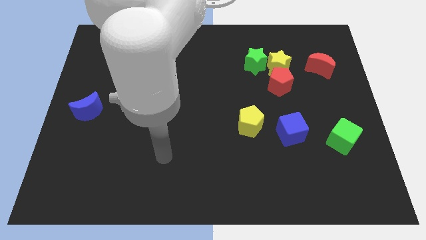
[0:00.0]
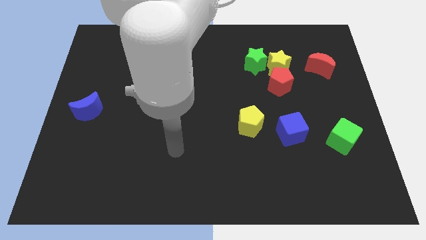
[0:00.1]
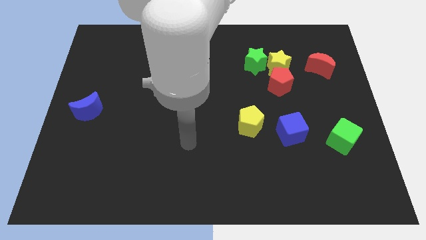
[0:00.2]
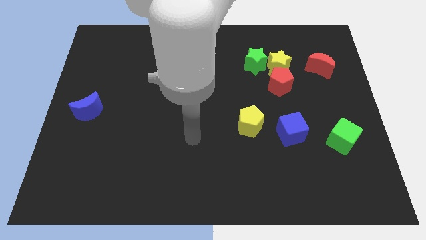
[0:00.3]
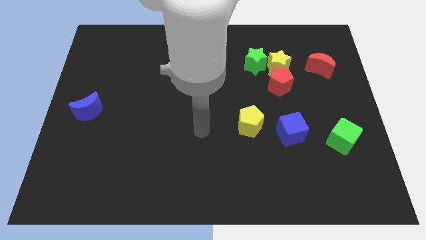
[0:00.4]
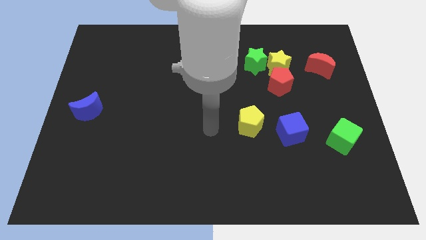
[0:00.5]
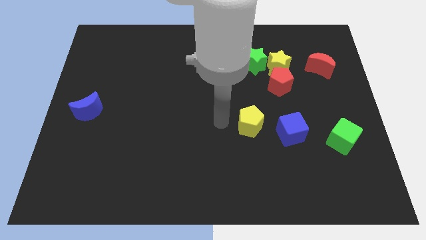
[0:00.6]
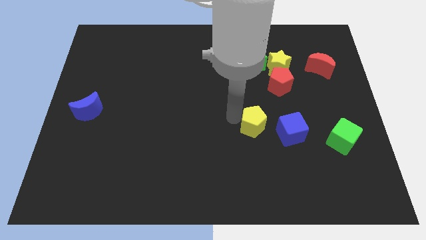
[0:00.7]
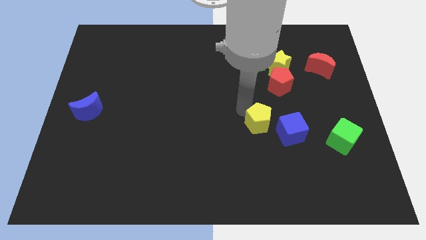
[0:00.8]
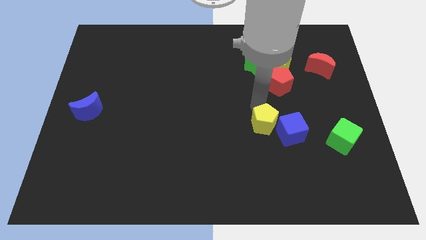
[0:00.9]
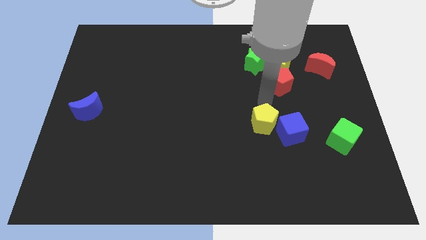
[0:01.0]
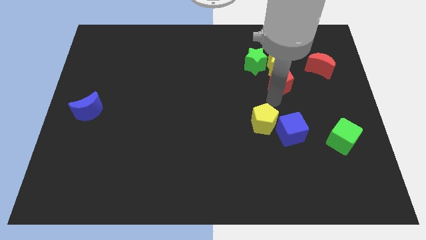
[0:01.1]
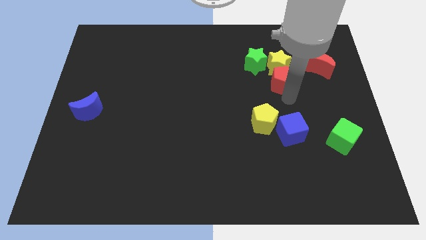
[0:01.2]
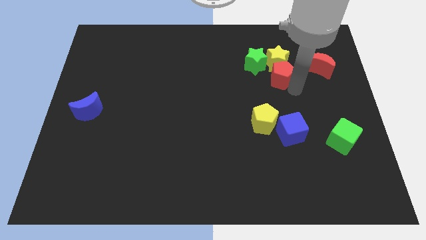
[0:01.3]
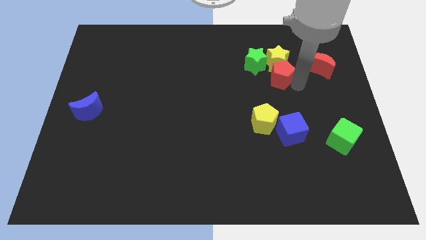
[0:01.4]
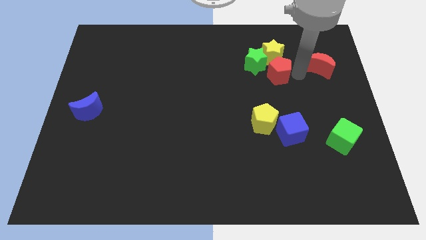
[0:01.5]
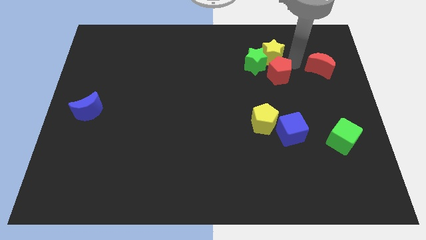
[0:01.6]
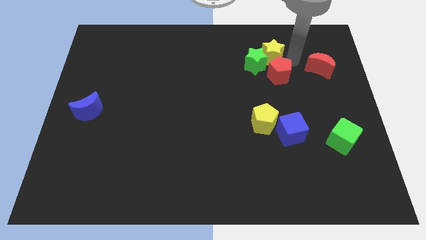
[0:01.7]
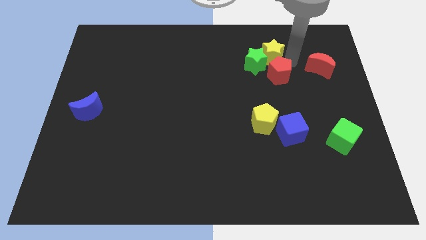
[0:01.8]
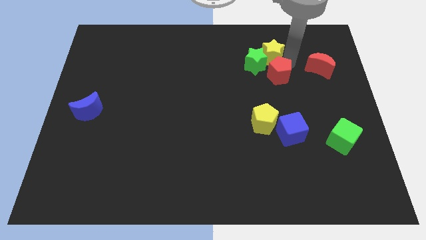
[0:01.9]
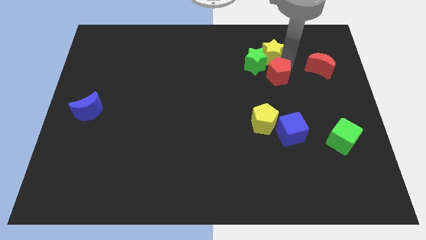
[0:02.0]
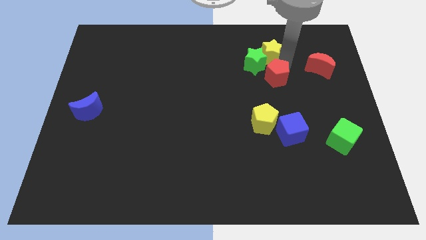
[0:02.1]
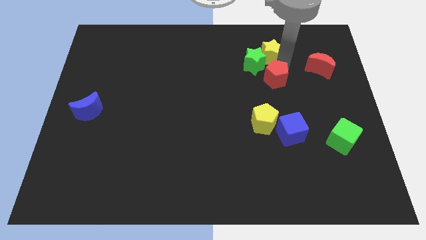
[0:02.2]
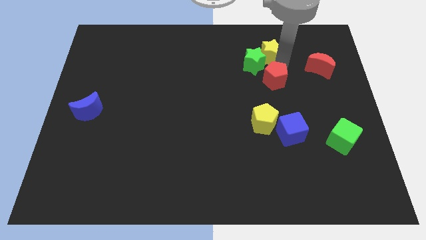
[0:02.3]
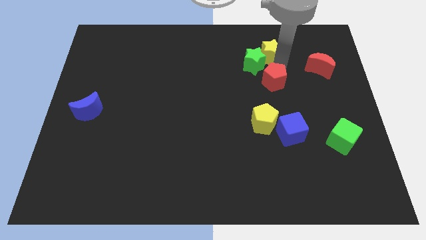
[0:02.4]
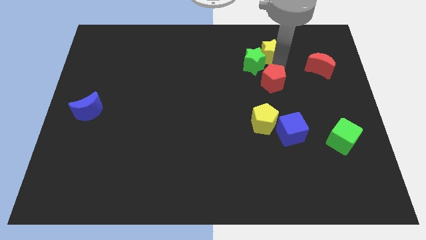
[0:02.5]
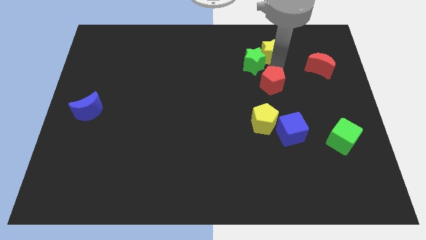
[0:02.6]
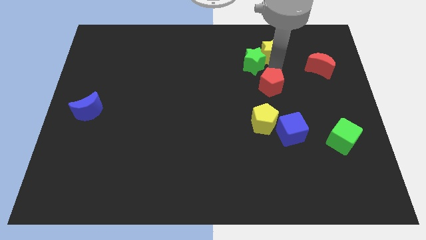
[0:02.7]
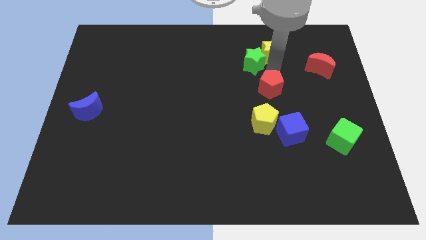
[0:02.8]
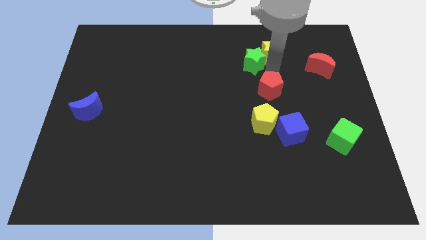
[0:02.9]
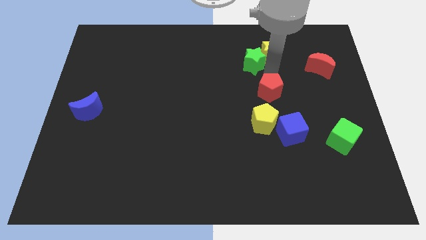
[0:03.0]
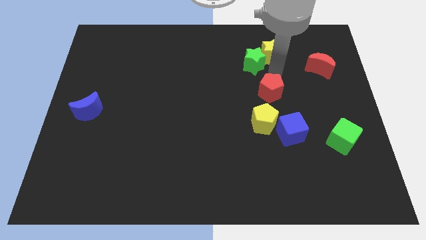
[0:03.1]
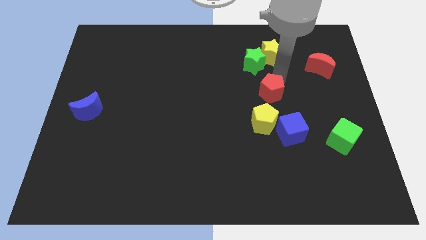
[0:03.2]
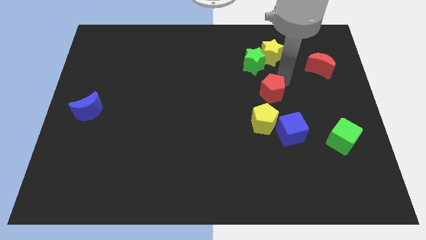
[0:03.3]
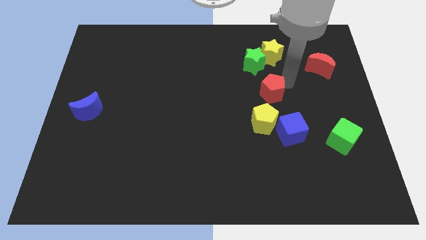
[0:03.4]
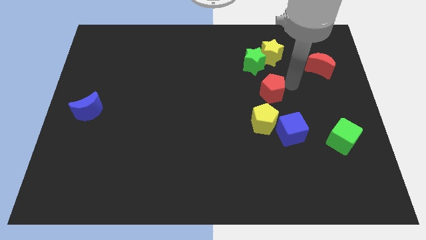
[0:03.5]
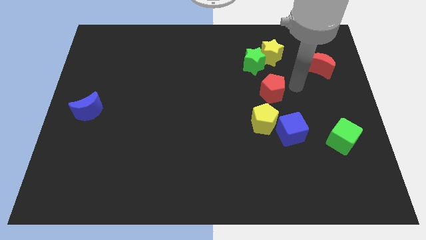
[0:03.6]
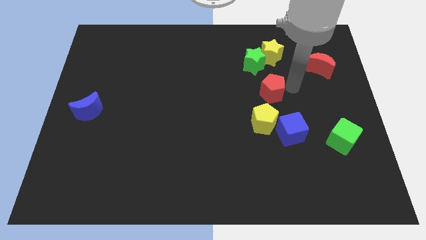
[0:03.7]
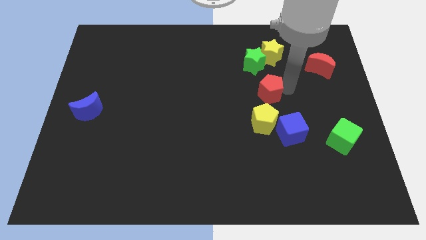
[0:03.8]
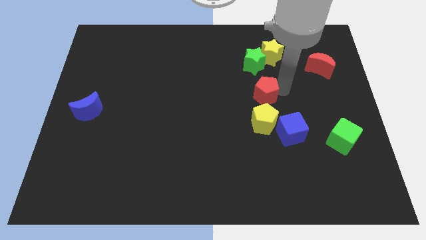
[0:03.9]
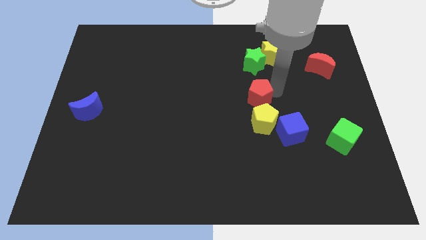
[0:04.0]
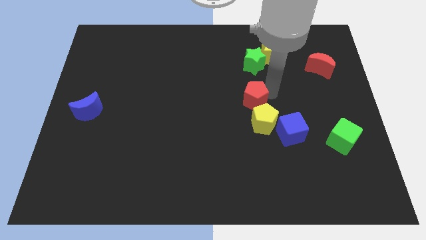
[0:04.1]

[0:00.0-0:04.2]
push the red pentagon downwards and to the left diagonally a little bit

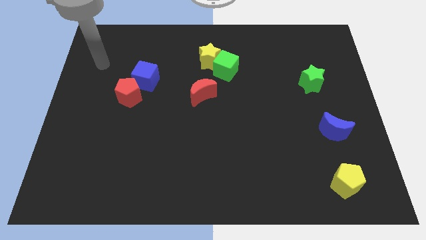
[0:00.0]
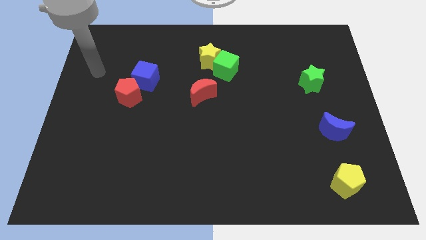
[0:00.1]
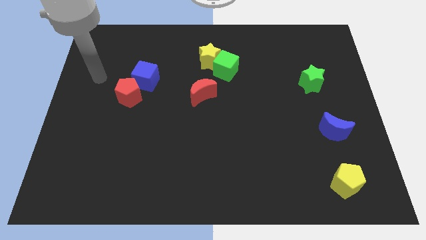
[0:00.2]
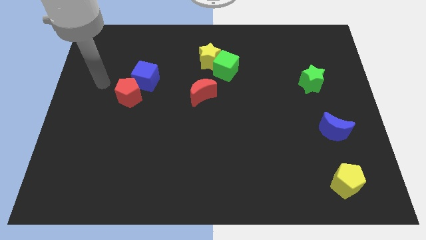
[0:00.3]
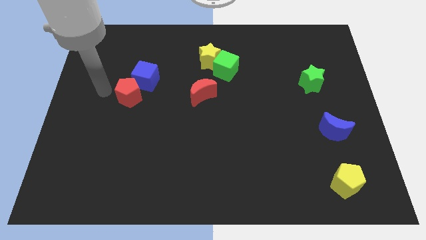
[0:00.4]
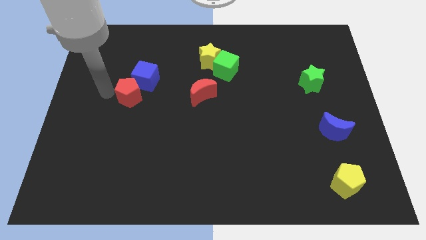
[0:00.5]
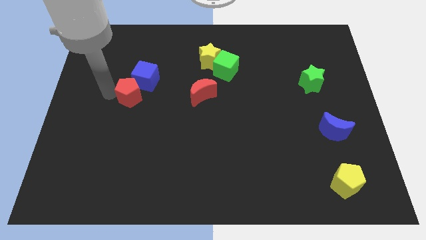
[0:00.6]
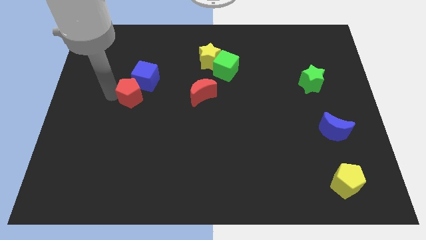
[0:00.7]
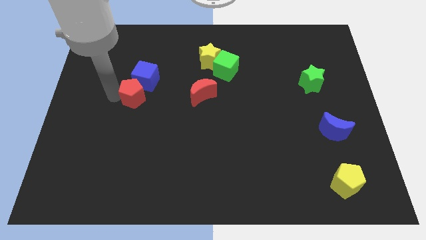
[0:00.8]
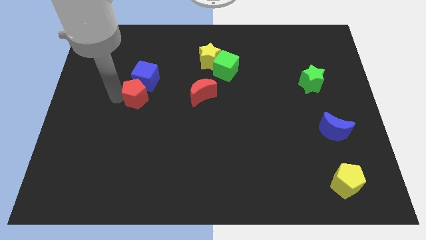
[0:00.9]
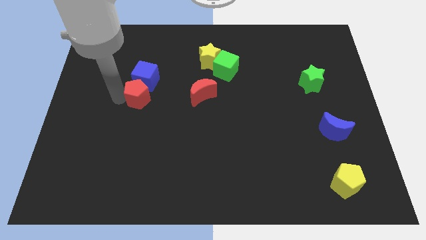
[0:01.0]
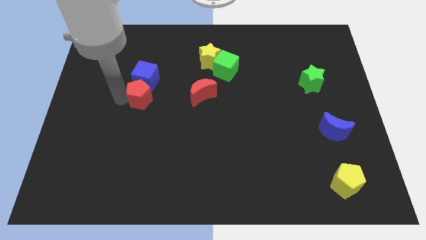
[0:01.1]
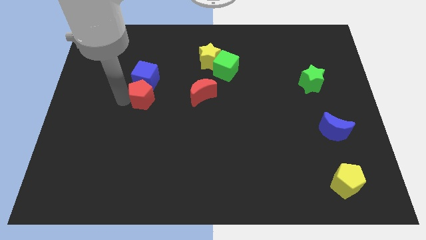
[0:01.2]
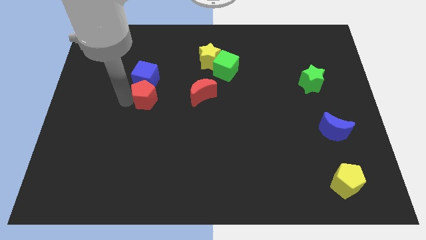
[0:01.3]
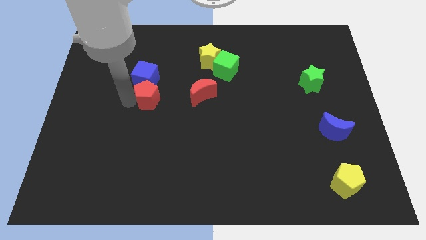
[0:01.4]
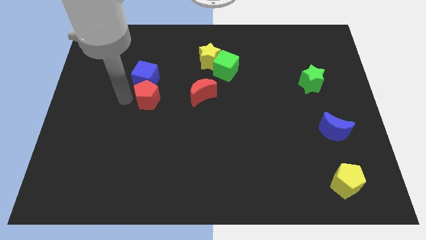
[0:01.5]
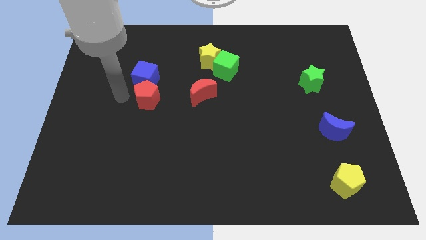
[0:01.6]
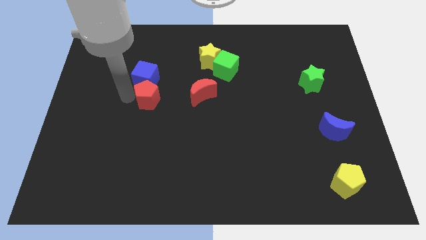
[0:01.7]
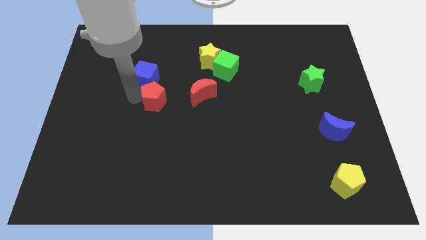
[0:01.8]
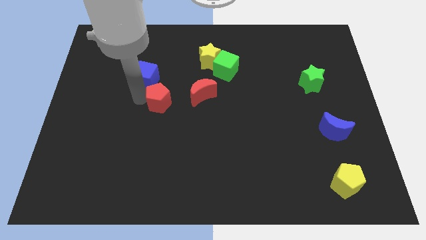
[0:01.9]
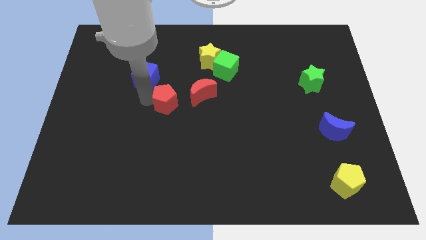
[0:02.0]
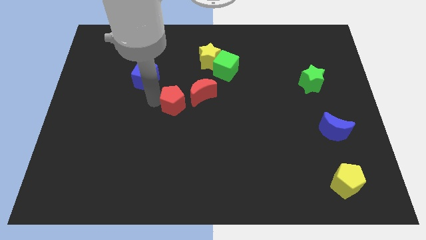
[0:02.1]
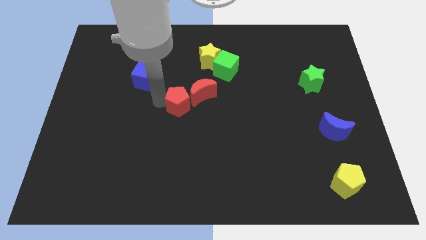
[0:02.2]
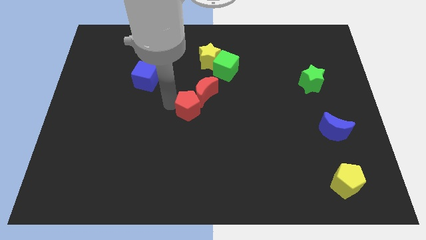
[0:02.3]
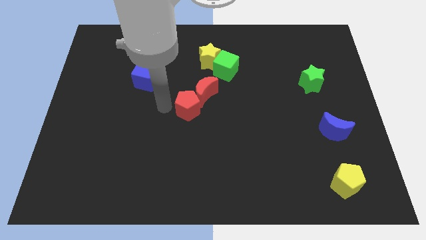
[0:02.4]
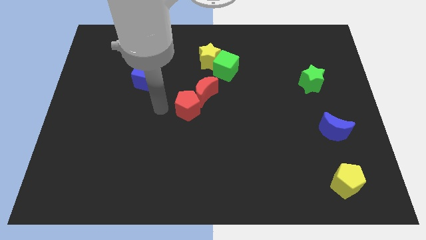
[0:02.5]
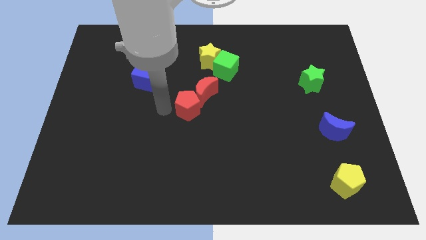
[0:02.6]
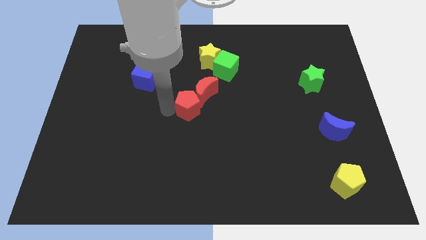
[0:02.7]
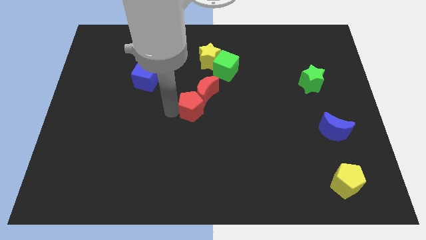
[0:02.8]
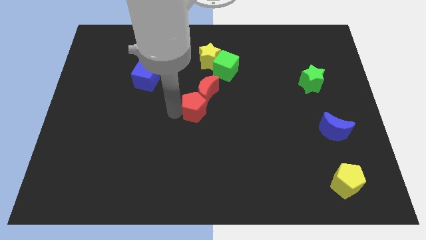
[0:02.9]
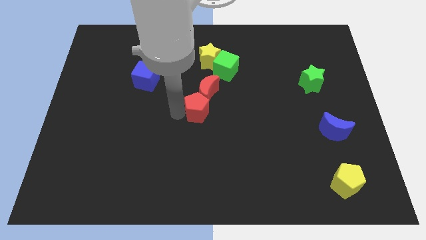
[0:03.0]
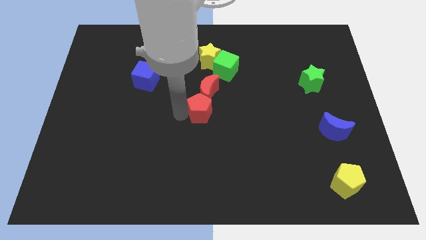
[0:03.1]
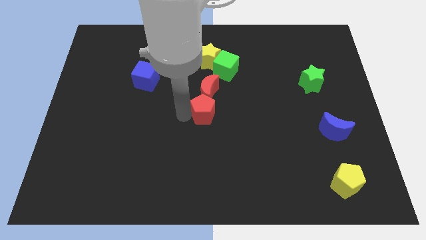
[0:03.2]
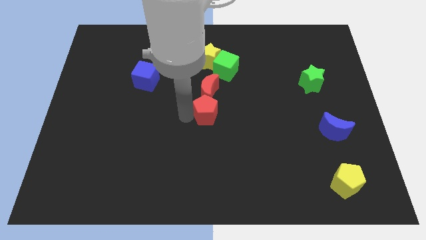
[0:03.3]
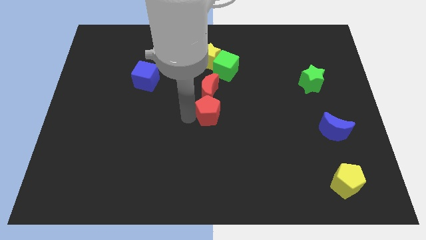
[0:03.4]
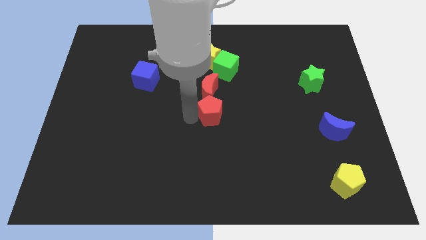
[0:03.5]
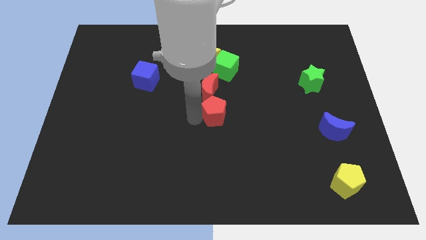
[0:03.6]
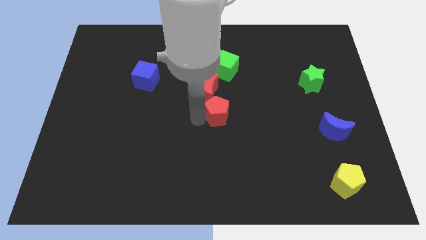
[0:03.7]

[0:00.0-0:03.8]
move the red pentagon to the right

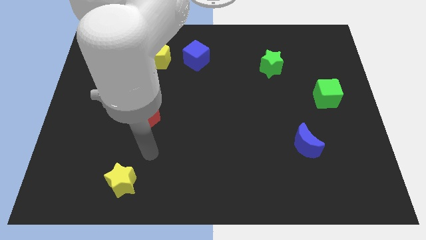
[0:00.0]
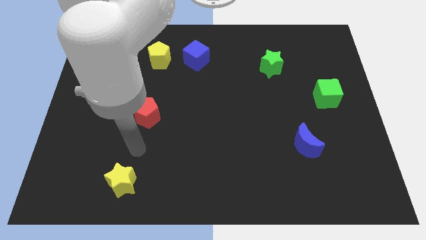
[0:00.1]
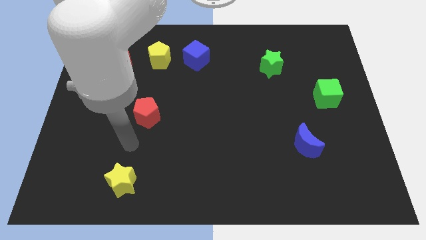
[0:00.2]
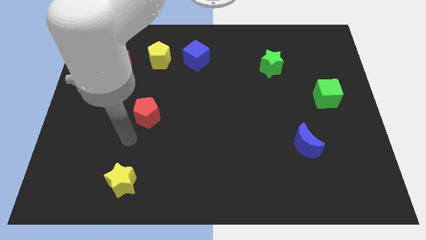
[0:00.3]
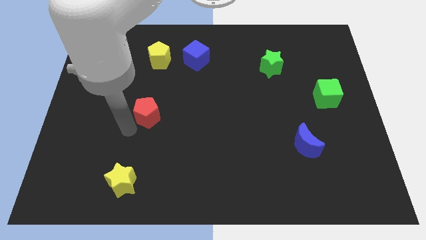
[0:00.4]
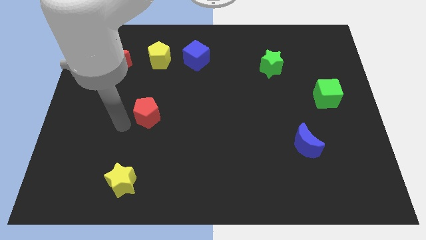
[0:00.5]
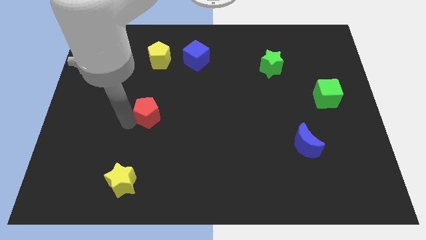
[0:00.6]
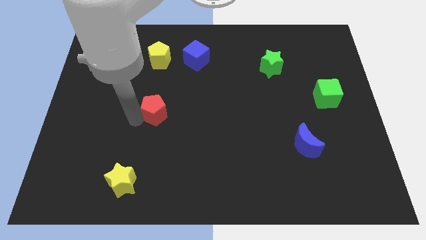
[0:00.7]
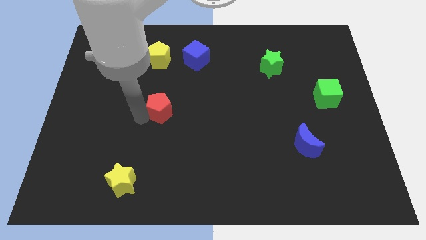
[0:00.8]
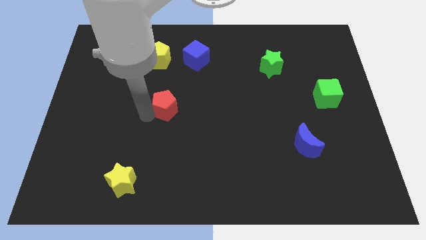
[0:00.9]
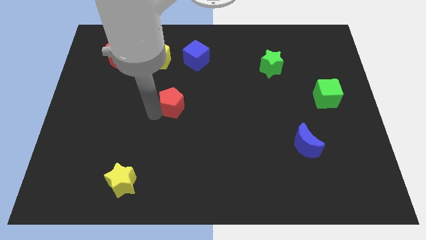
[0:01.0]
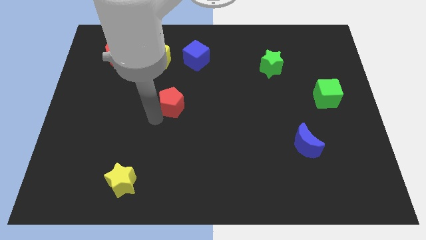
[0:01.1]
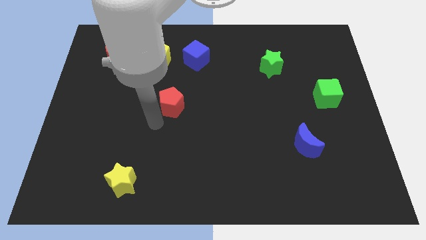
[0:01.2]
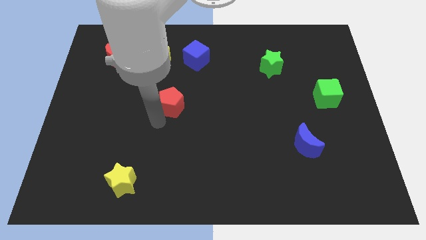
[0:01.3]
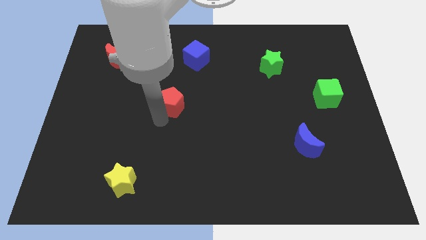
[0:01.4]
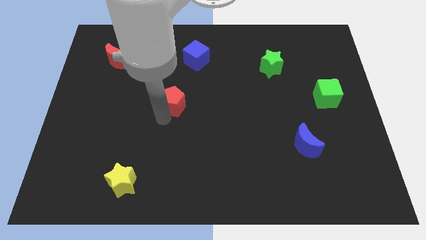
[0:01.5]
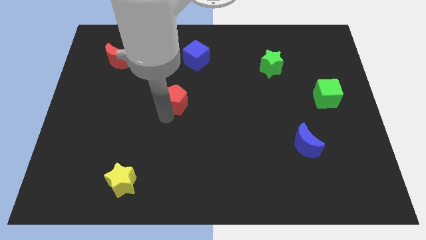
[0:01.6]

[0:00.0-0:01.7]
push the red pentagon a little upwards and to the right diagonally
